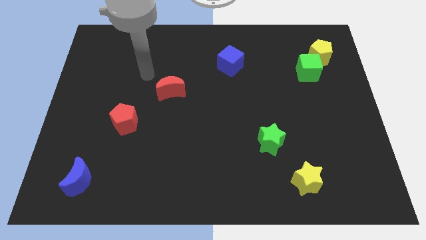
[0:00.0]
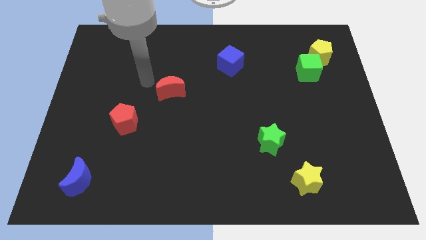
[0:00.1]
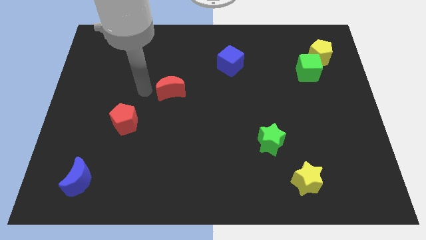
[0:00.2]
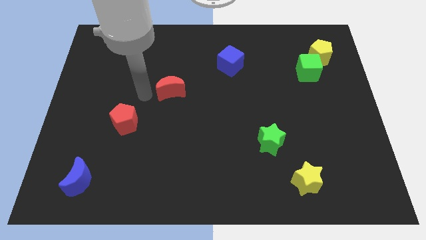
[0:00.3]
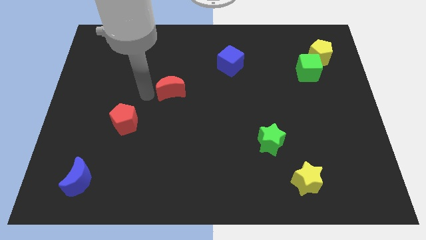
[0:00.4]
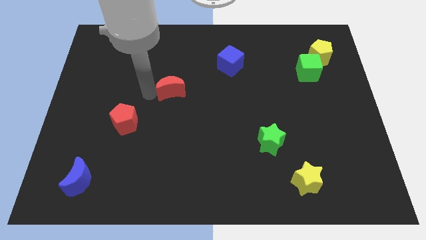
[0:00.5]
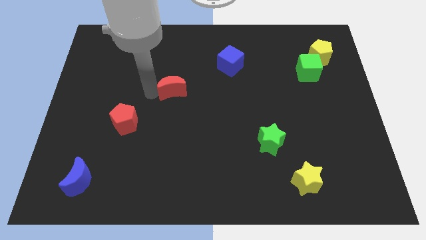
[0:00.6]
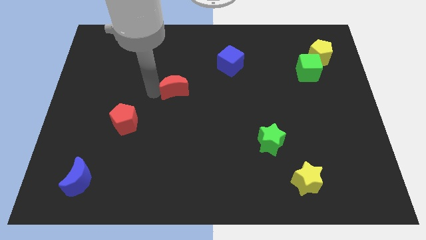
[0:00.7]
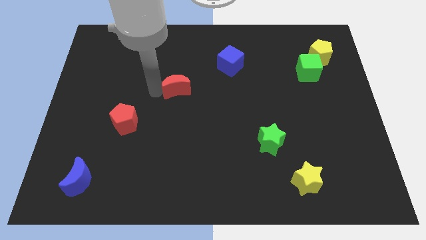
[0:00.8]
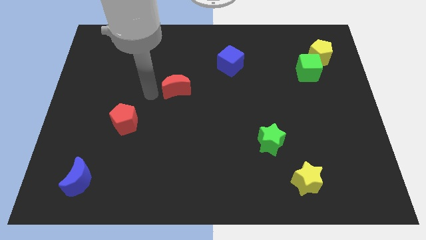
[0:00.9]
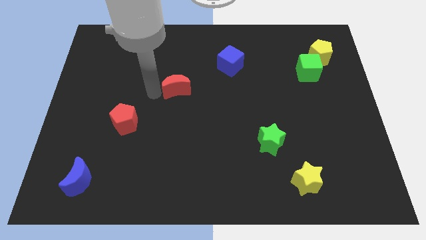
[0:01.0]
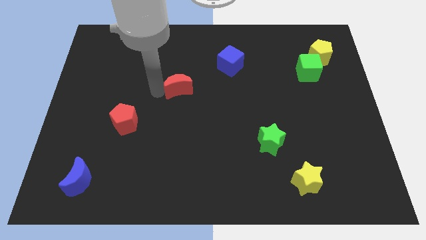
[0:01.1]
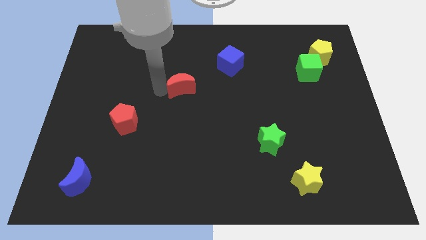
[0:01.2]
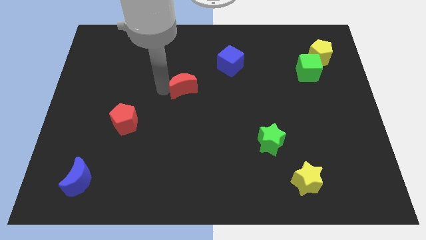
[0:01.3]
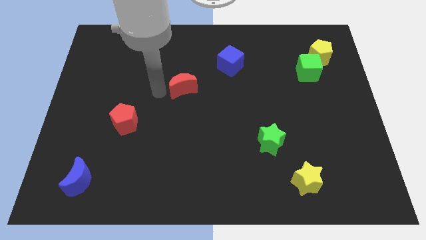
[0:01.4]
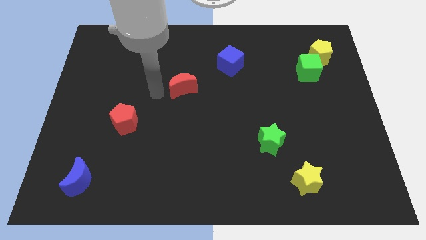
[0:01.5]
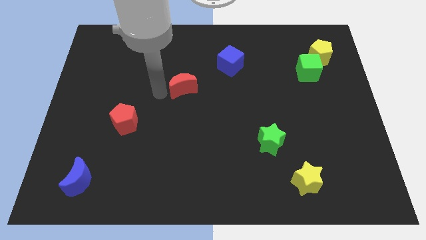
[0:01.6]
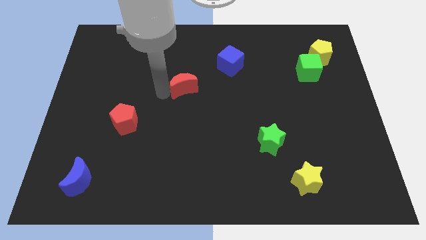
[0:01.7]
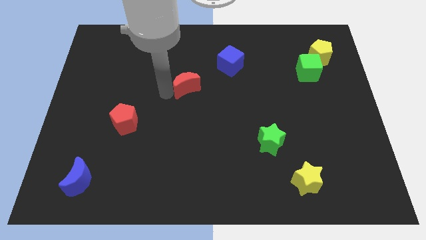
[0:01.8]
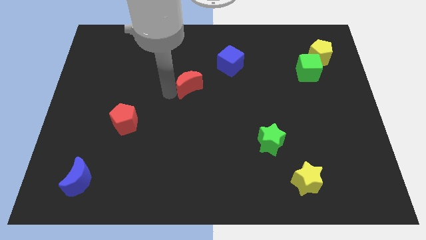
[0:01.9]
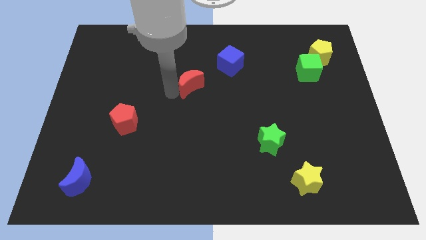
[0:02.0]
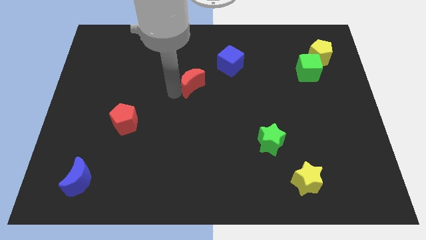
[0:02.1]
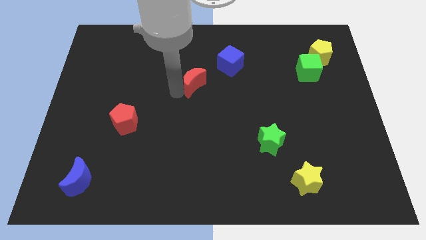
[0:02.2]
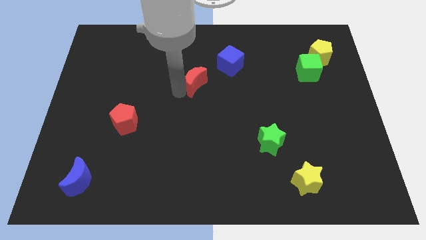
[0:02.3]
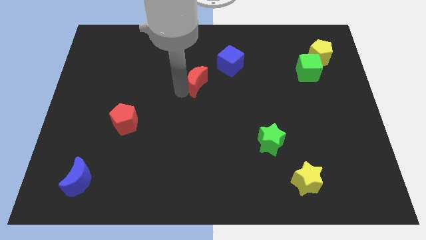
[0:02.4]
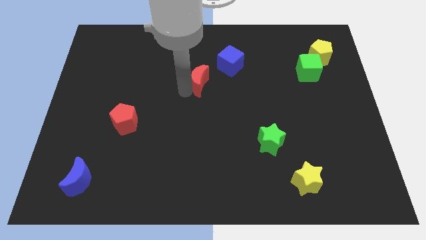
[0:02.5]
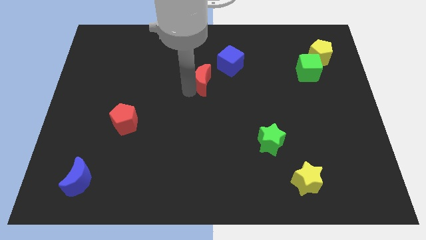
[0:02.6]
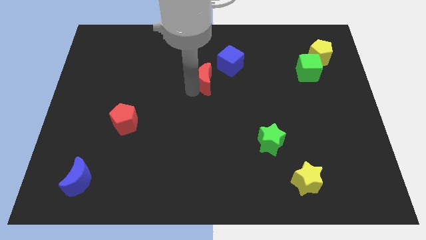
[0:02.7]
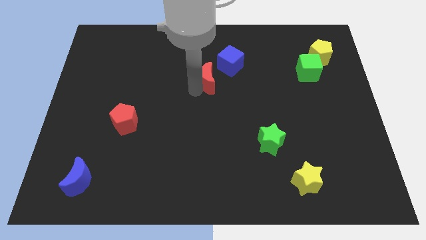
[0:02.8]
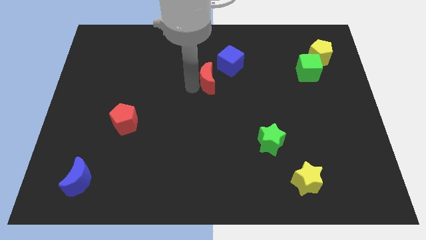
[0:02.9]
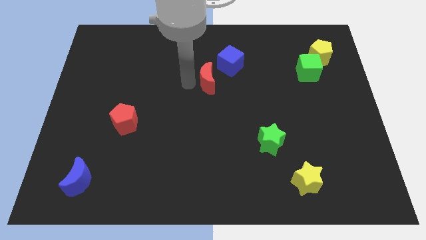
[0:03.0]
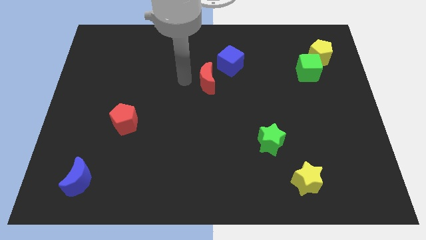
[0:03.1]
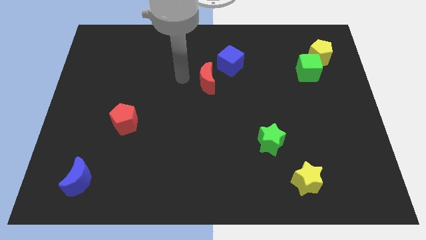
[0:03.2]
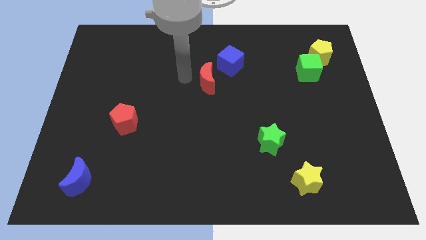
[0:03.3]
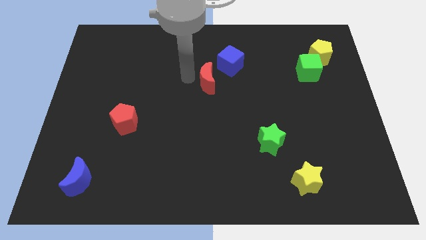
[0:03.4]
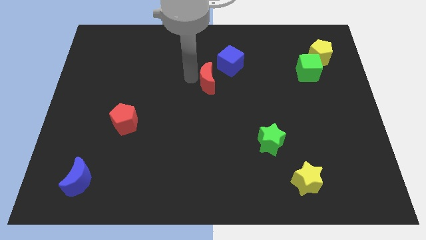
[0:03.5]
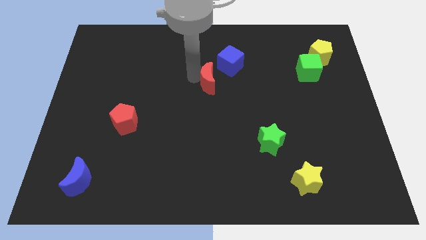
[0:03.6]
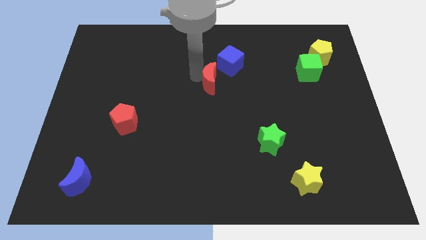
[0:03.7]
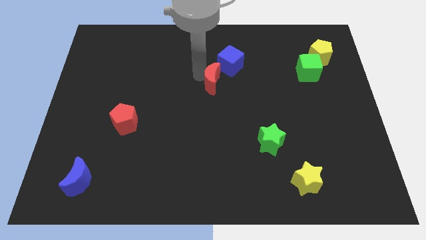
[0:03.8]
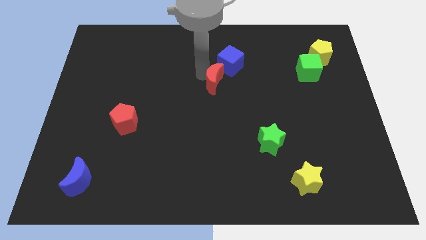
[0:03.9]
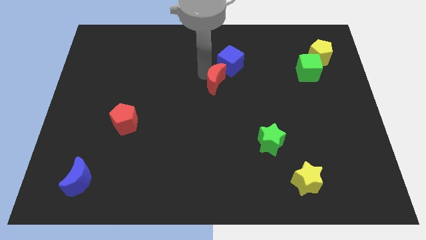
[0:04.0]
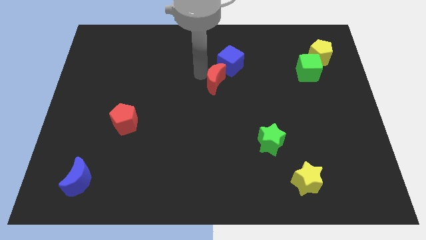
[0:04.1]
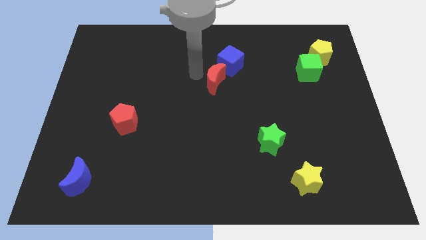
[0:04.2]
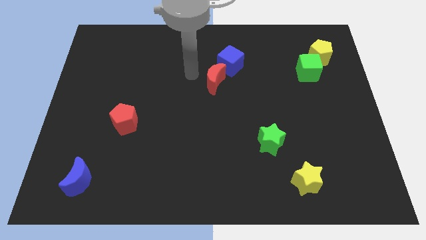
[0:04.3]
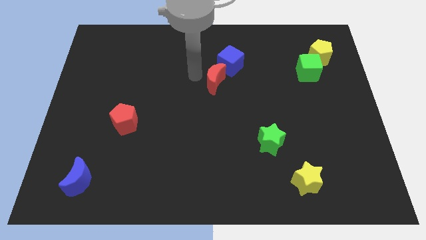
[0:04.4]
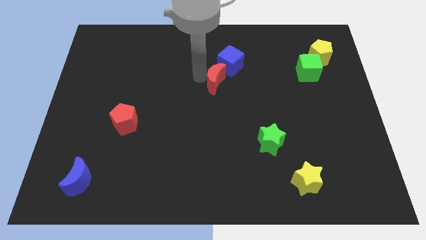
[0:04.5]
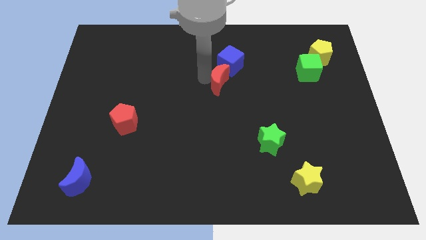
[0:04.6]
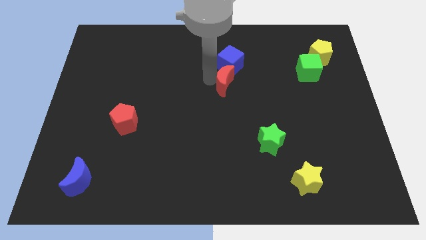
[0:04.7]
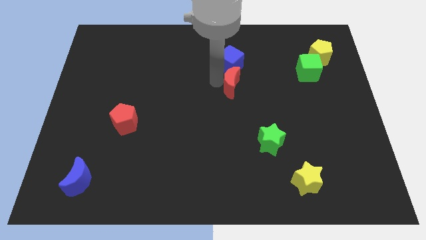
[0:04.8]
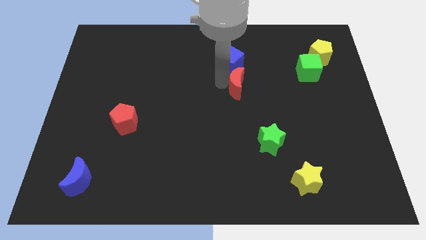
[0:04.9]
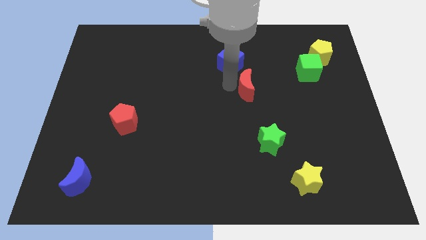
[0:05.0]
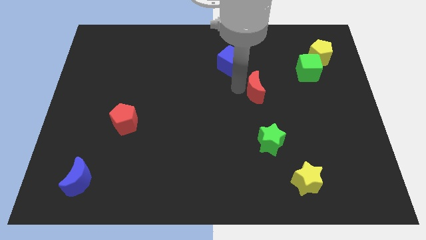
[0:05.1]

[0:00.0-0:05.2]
slide the red moon to the right

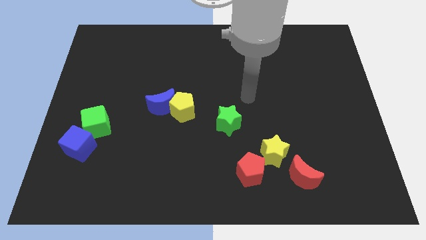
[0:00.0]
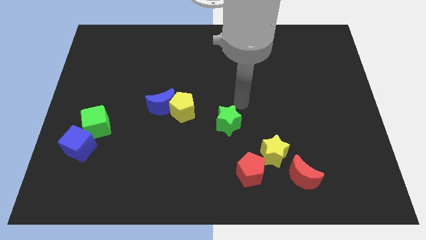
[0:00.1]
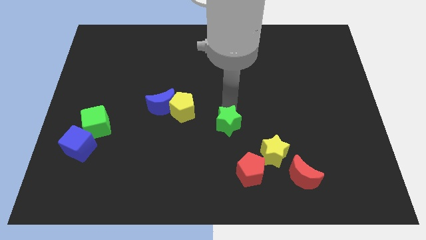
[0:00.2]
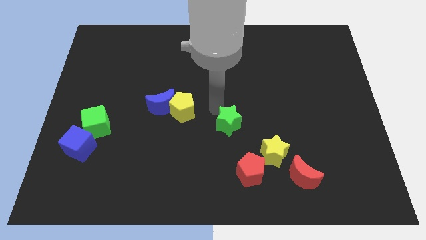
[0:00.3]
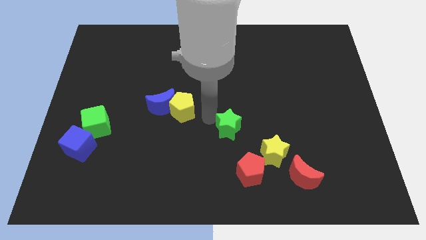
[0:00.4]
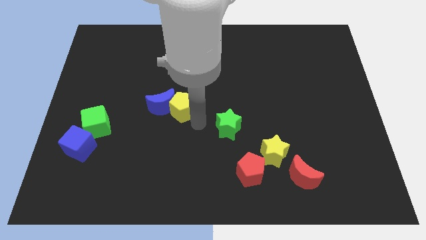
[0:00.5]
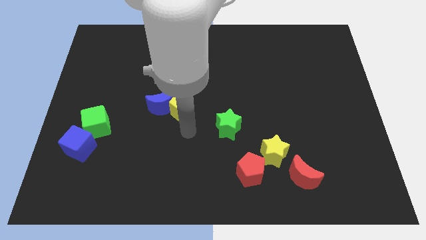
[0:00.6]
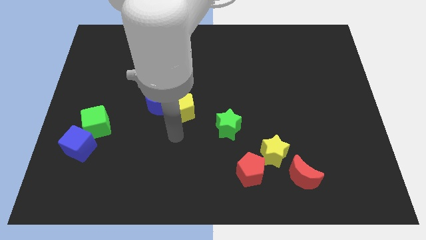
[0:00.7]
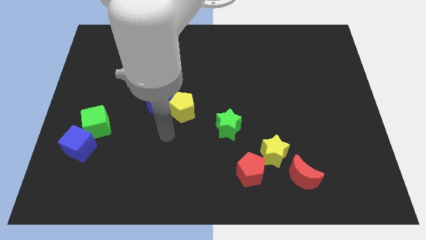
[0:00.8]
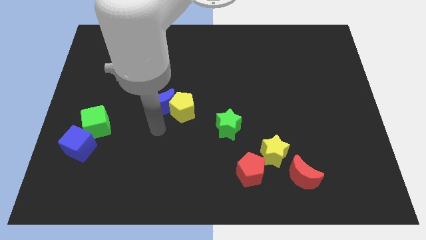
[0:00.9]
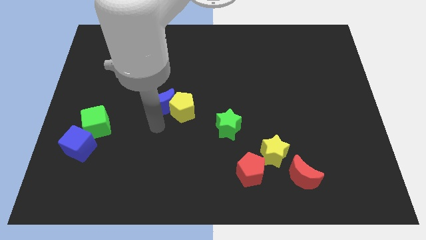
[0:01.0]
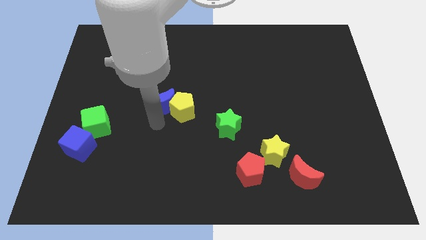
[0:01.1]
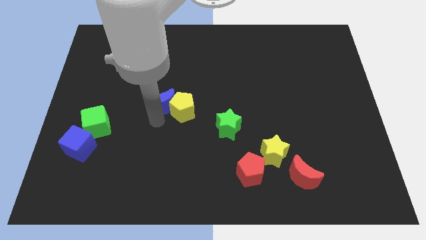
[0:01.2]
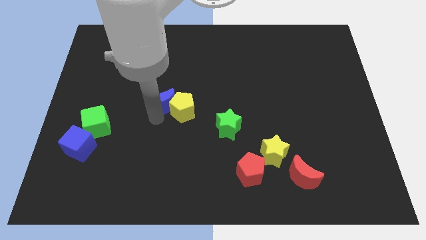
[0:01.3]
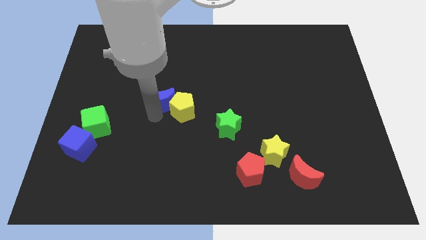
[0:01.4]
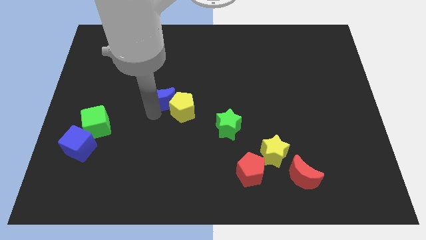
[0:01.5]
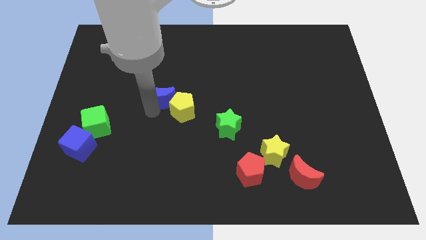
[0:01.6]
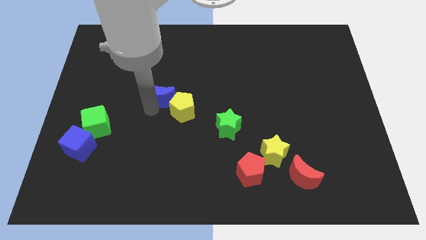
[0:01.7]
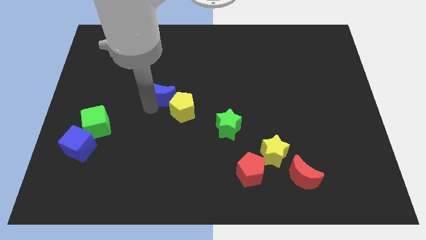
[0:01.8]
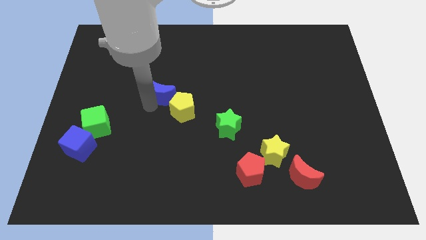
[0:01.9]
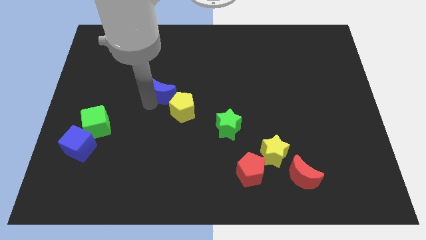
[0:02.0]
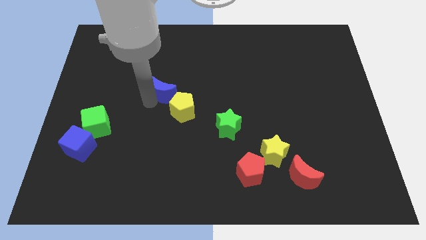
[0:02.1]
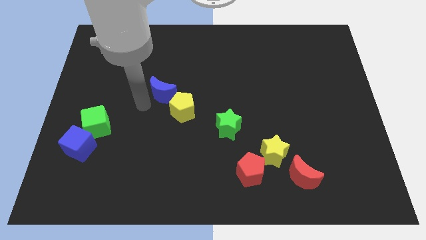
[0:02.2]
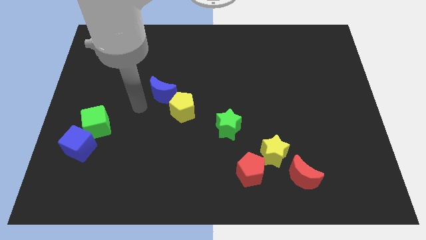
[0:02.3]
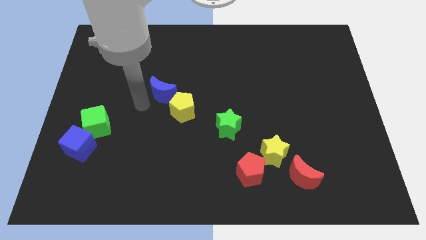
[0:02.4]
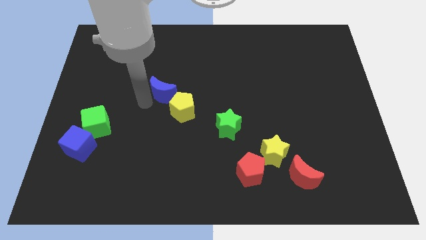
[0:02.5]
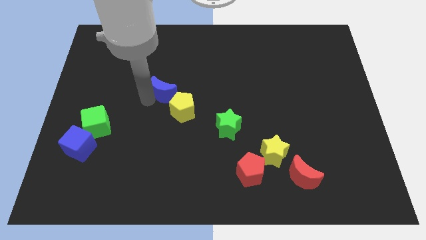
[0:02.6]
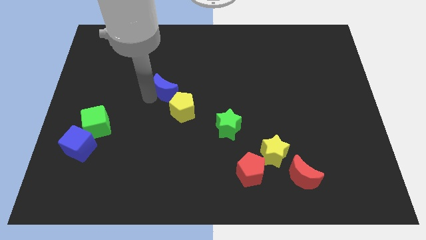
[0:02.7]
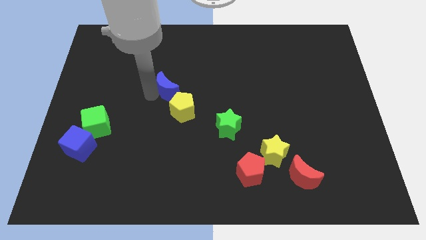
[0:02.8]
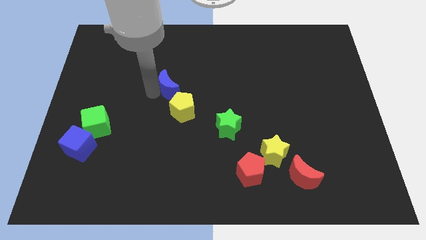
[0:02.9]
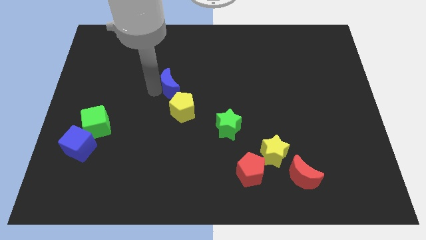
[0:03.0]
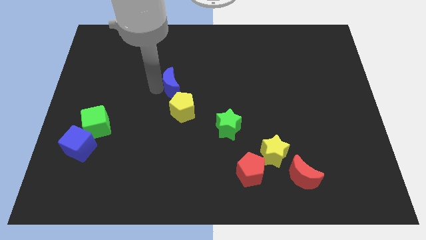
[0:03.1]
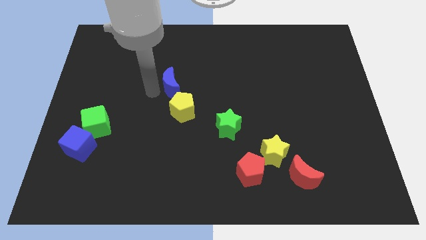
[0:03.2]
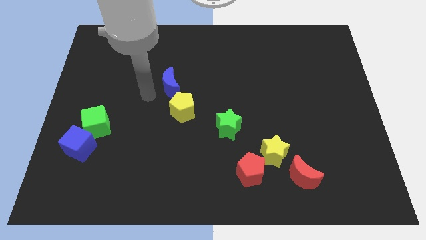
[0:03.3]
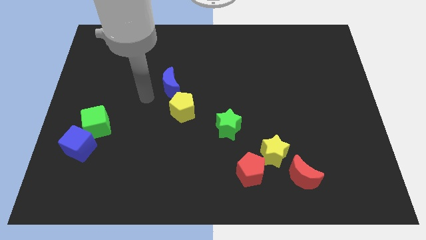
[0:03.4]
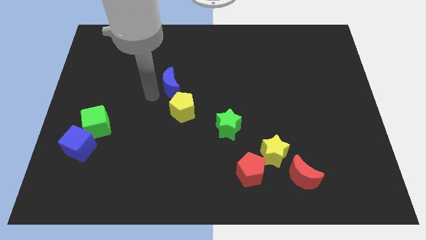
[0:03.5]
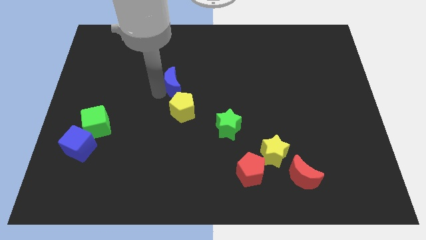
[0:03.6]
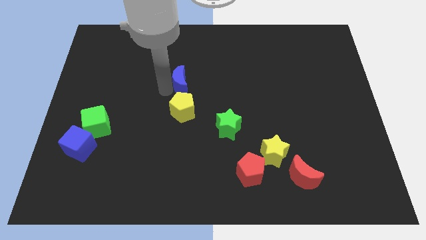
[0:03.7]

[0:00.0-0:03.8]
slide the blue moon diagonally upwards and right a little bit
